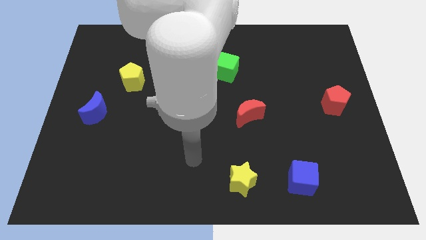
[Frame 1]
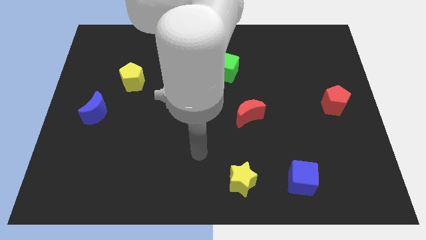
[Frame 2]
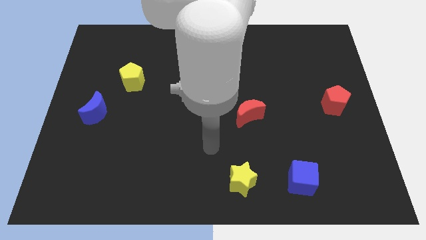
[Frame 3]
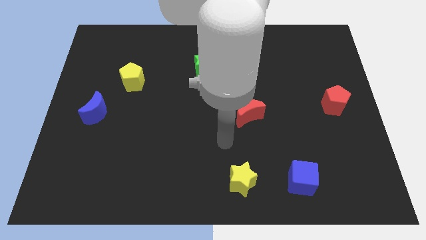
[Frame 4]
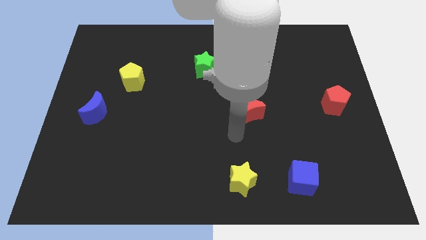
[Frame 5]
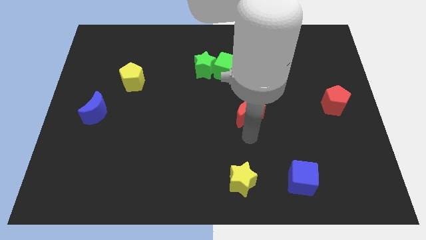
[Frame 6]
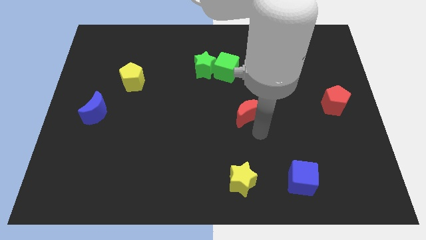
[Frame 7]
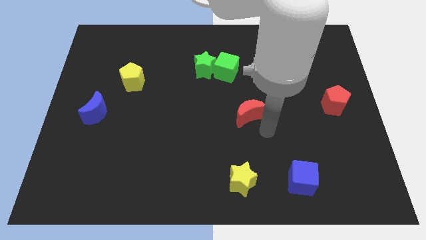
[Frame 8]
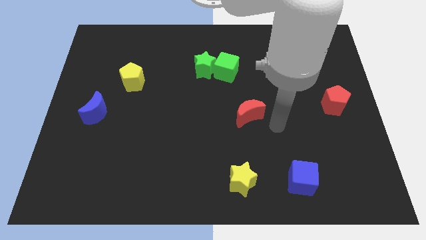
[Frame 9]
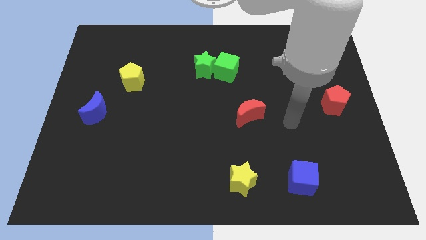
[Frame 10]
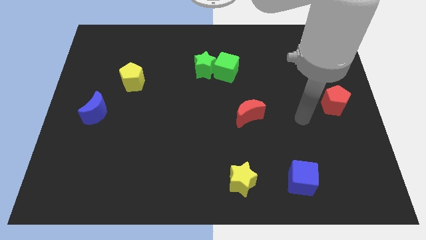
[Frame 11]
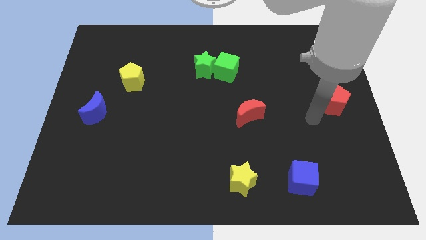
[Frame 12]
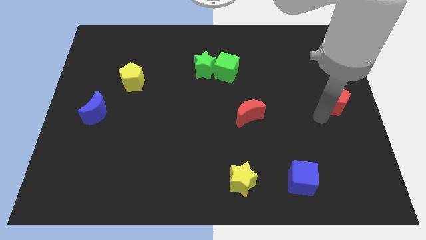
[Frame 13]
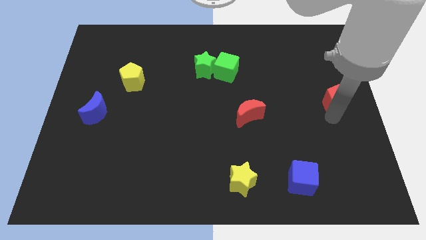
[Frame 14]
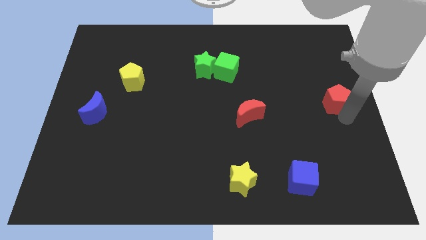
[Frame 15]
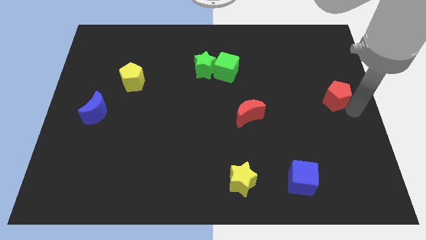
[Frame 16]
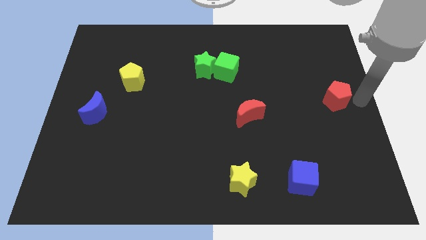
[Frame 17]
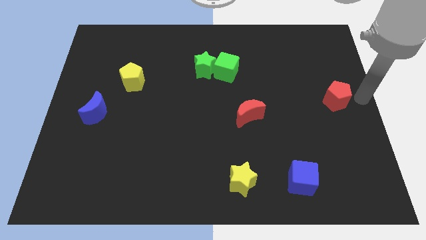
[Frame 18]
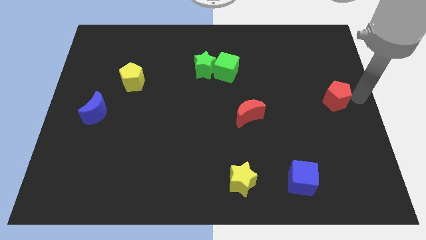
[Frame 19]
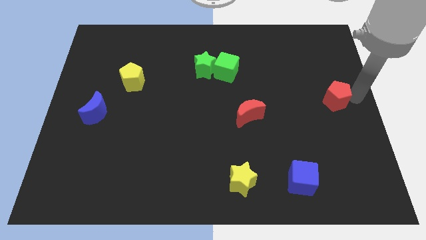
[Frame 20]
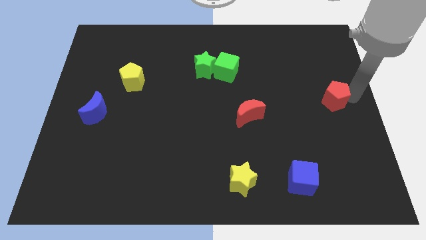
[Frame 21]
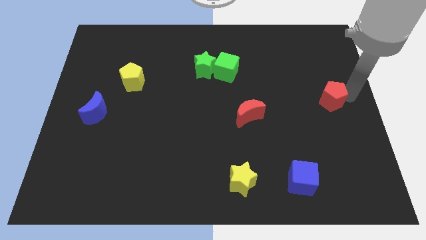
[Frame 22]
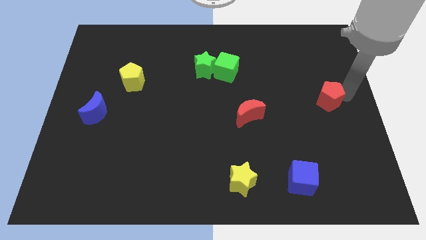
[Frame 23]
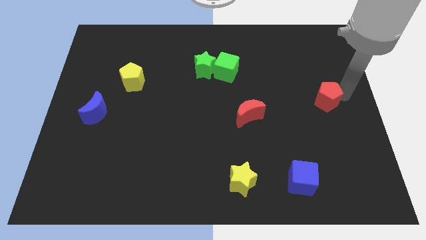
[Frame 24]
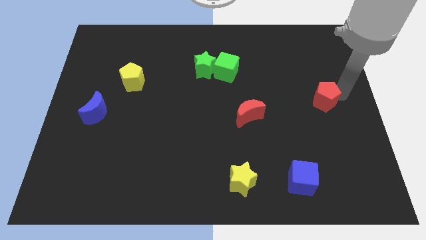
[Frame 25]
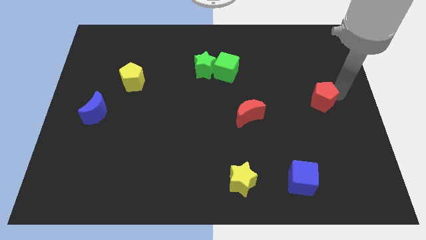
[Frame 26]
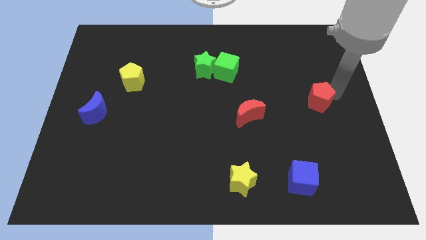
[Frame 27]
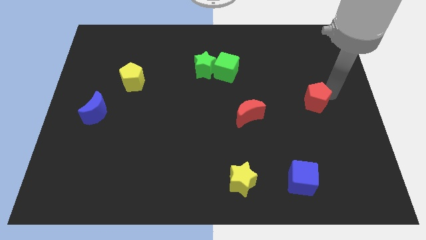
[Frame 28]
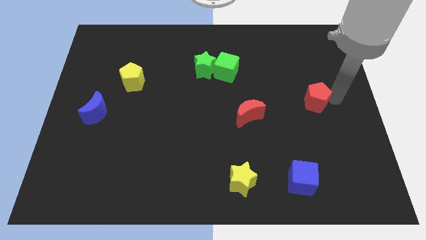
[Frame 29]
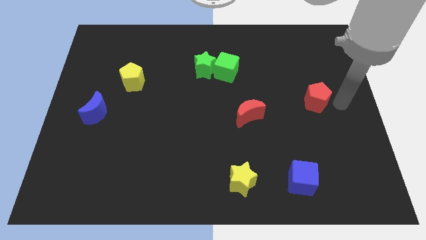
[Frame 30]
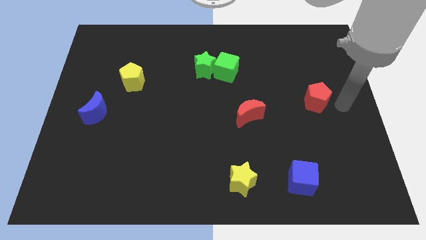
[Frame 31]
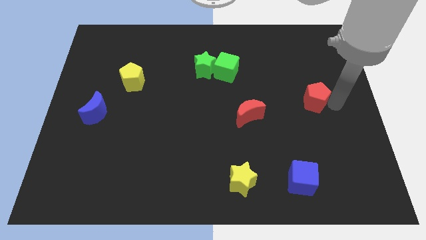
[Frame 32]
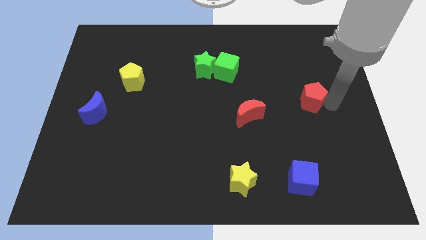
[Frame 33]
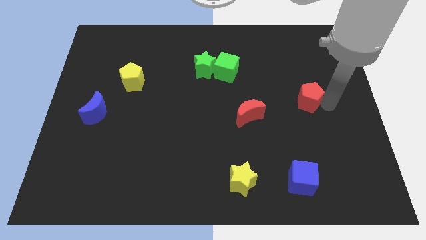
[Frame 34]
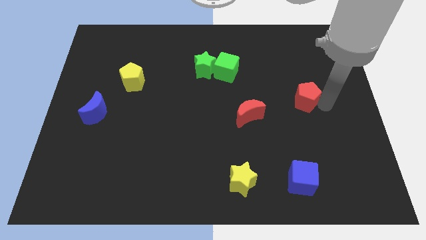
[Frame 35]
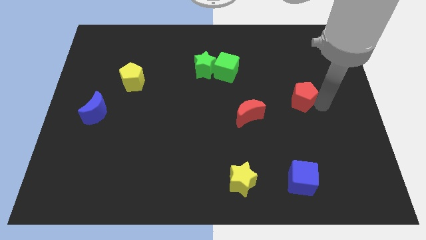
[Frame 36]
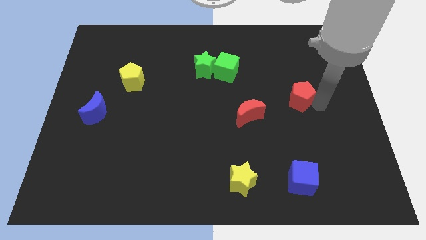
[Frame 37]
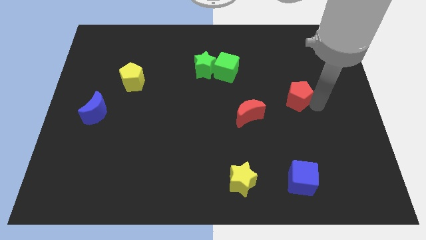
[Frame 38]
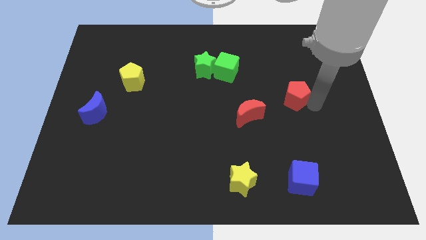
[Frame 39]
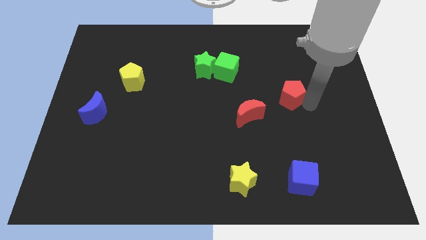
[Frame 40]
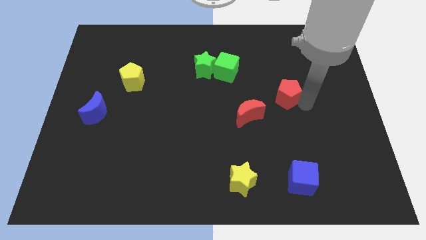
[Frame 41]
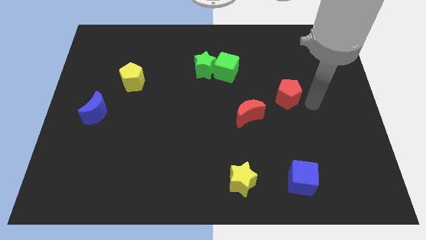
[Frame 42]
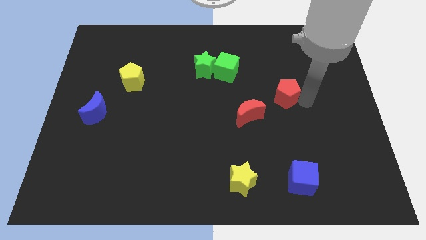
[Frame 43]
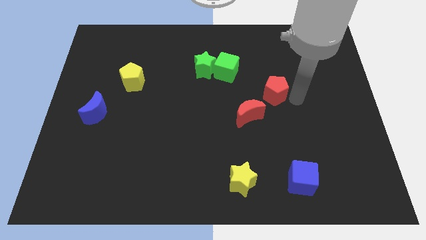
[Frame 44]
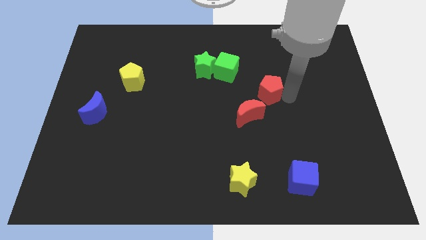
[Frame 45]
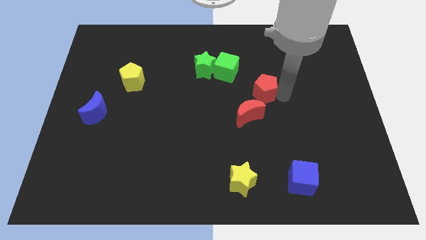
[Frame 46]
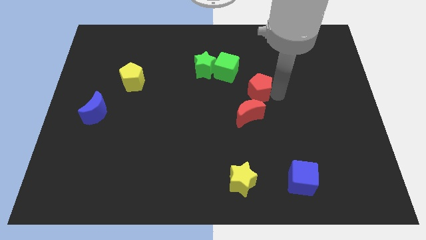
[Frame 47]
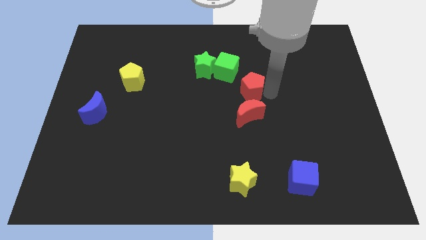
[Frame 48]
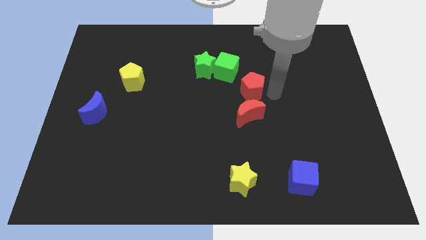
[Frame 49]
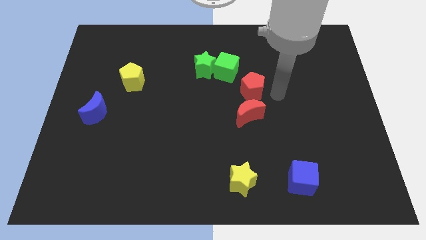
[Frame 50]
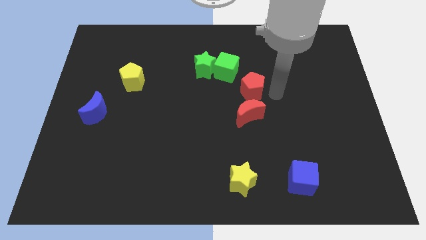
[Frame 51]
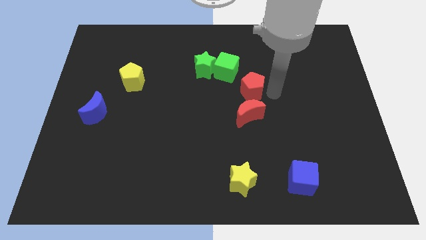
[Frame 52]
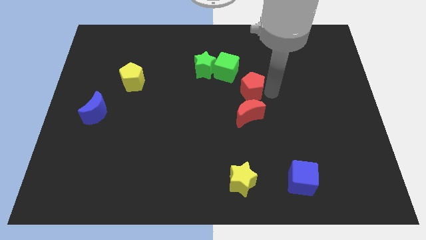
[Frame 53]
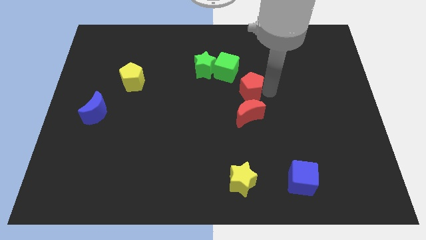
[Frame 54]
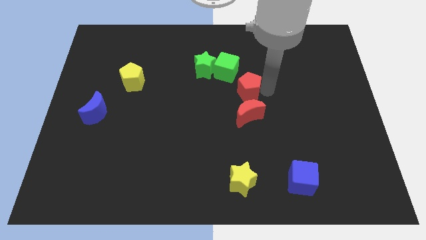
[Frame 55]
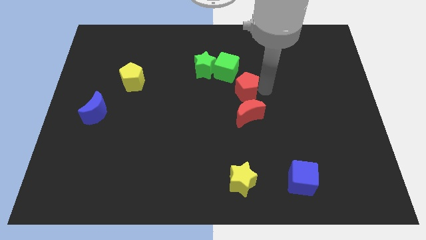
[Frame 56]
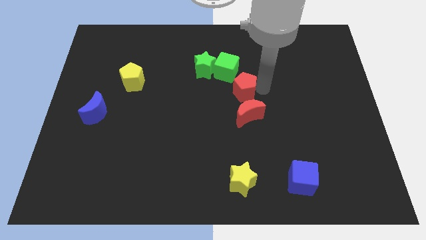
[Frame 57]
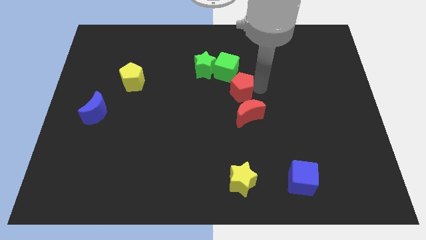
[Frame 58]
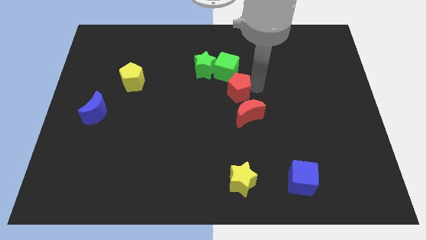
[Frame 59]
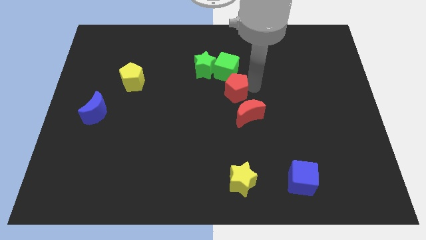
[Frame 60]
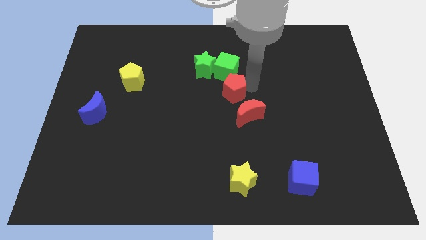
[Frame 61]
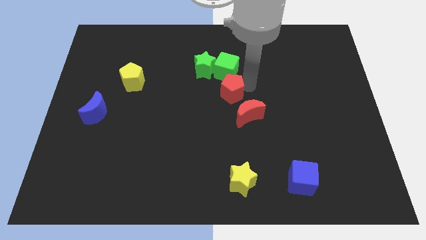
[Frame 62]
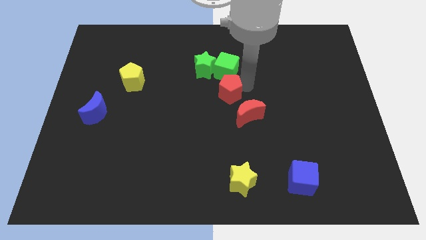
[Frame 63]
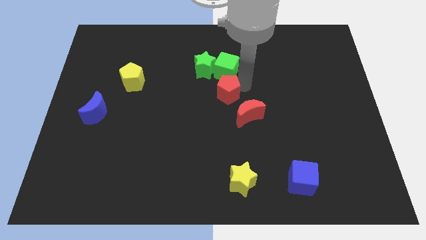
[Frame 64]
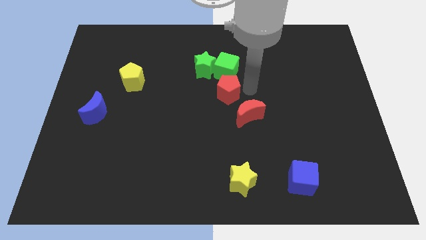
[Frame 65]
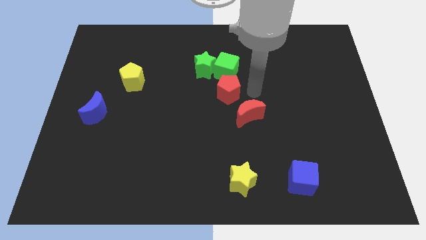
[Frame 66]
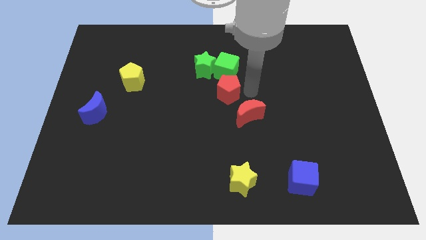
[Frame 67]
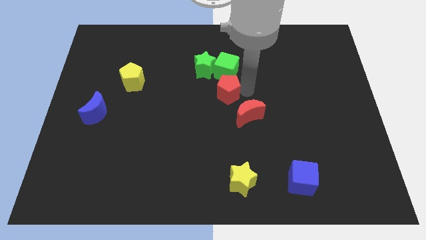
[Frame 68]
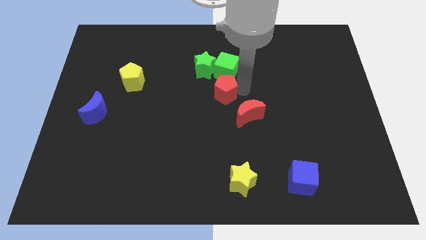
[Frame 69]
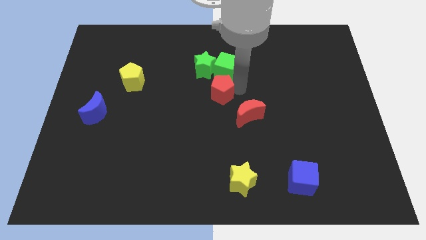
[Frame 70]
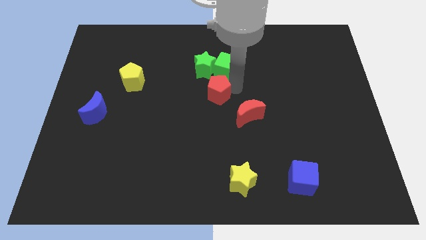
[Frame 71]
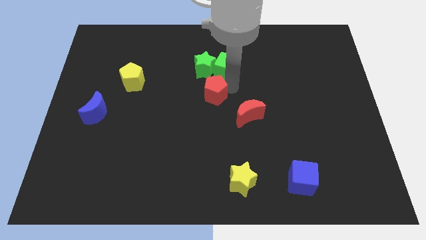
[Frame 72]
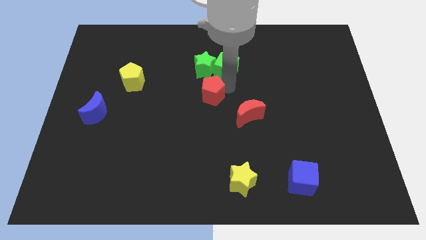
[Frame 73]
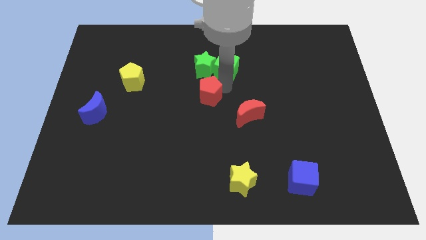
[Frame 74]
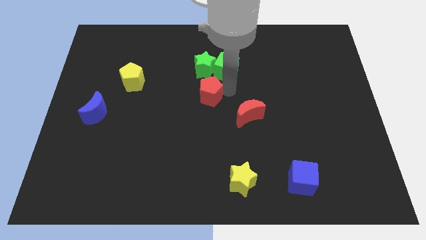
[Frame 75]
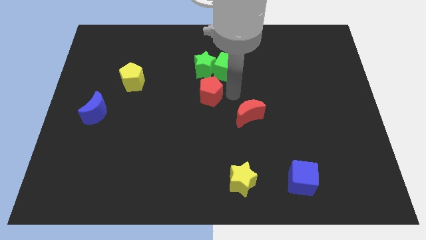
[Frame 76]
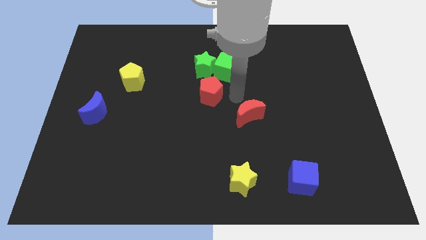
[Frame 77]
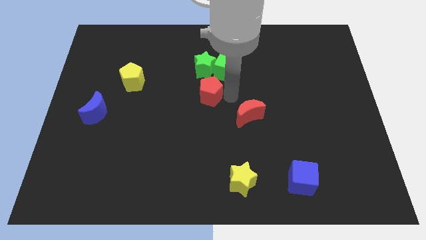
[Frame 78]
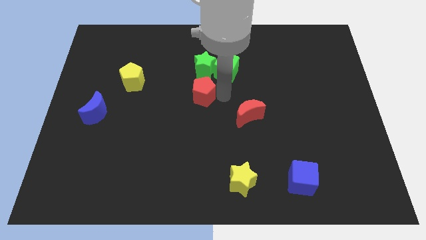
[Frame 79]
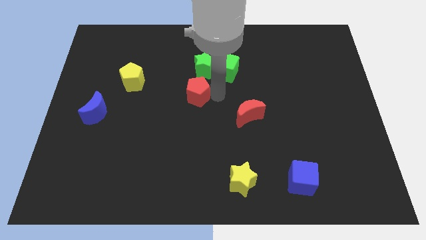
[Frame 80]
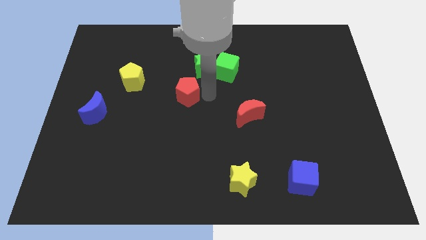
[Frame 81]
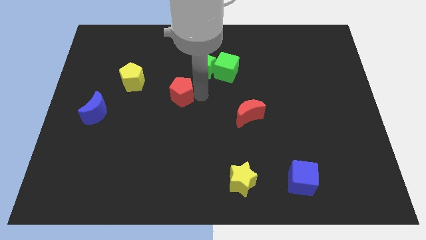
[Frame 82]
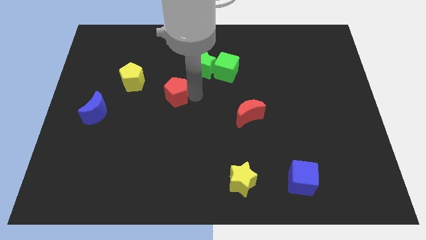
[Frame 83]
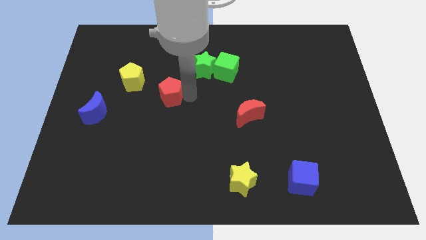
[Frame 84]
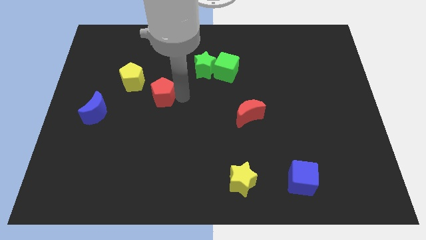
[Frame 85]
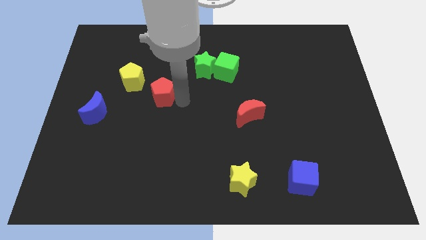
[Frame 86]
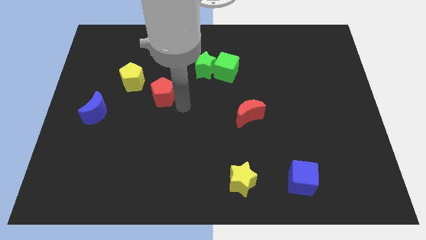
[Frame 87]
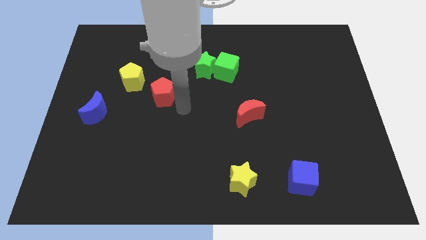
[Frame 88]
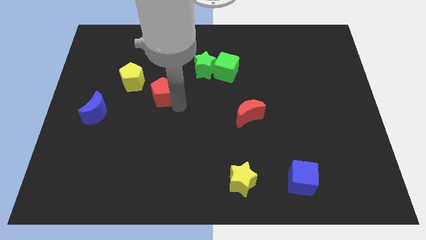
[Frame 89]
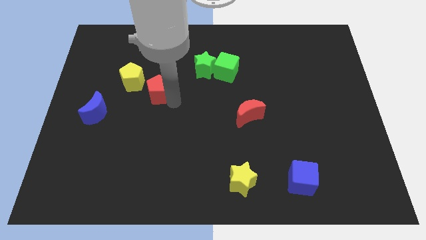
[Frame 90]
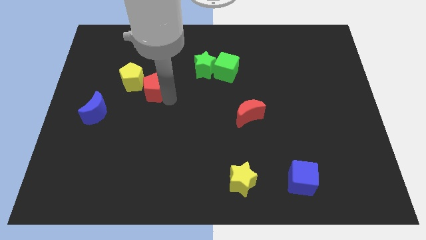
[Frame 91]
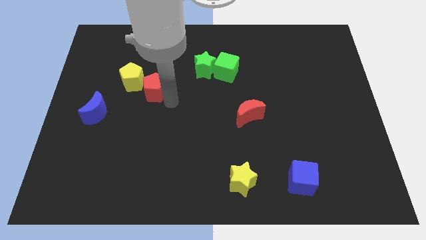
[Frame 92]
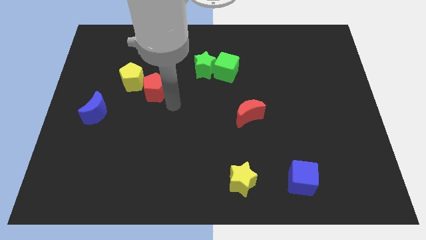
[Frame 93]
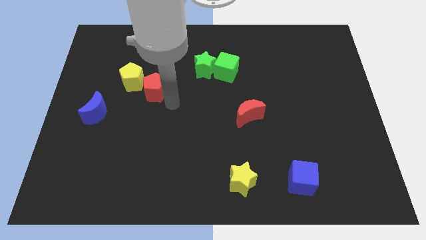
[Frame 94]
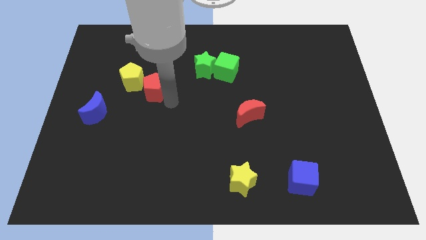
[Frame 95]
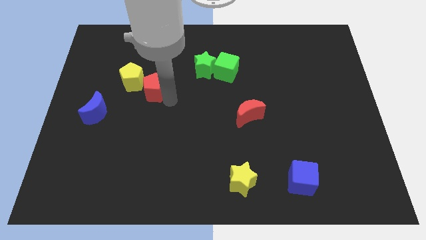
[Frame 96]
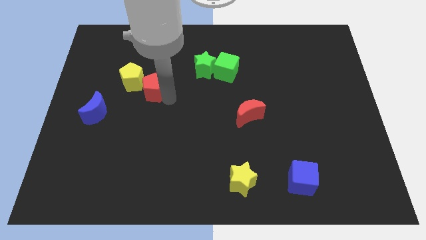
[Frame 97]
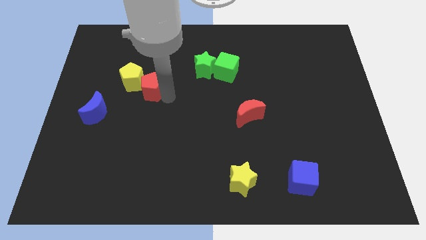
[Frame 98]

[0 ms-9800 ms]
move the red pentagon close to the yellow pentagon
